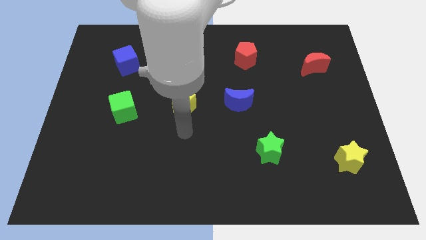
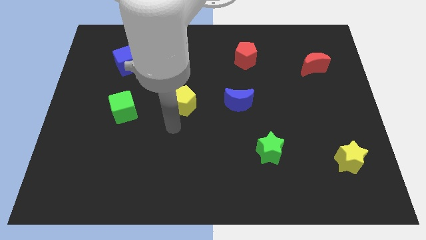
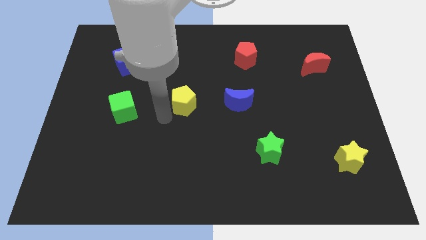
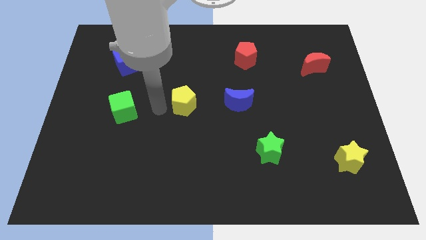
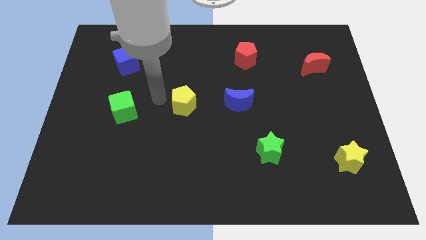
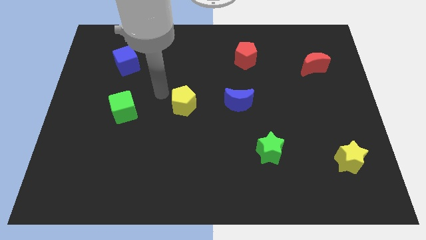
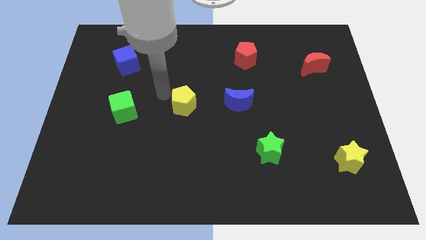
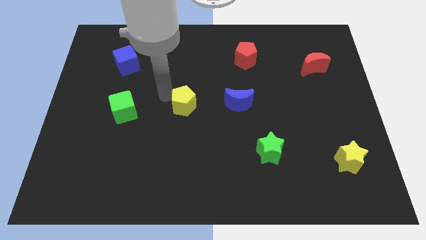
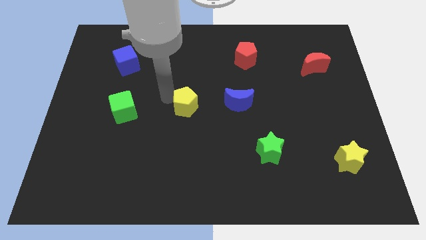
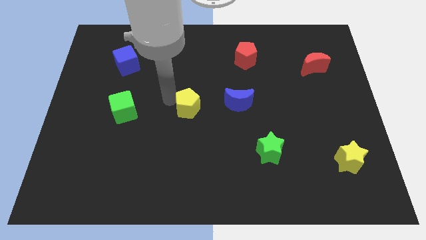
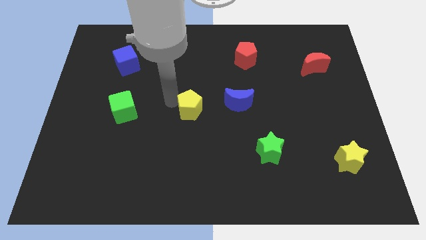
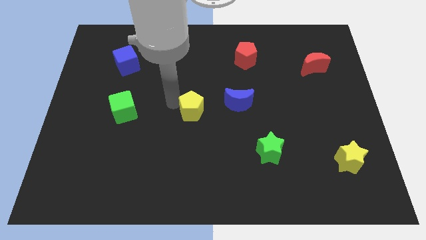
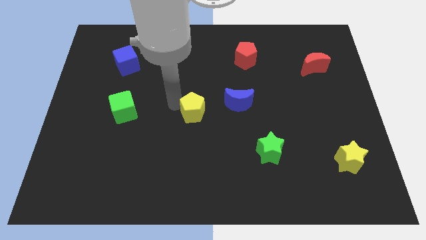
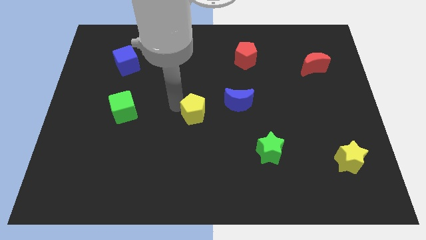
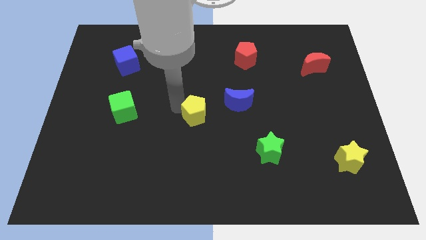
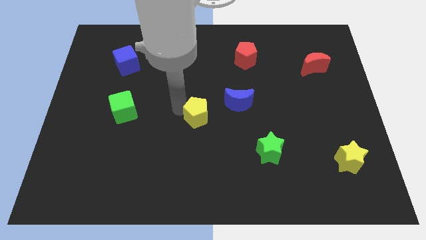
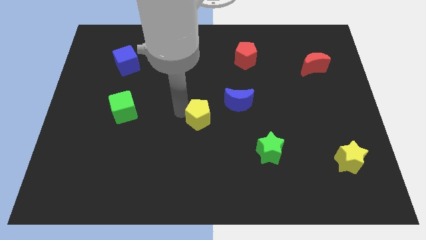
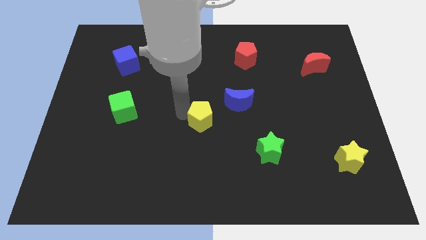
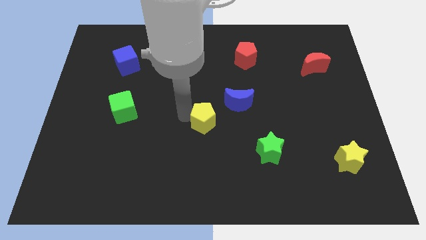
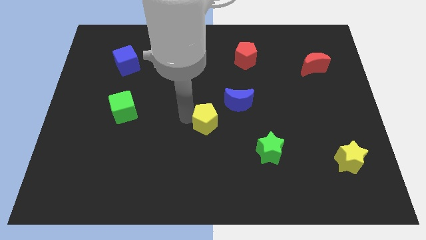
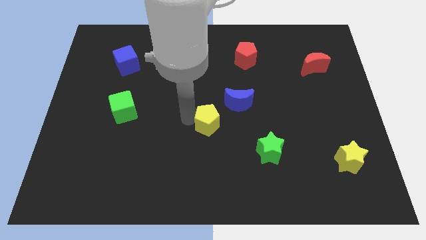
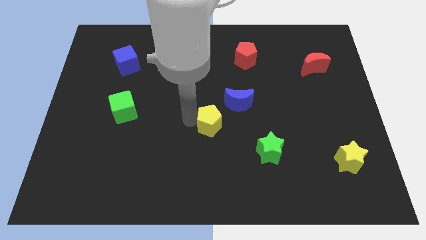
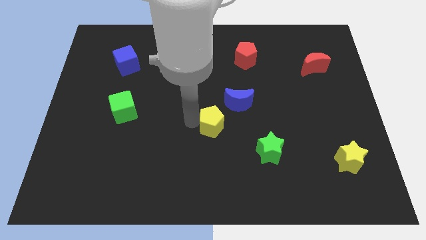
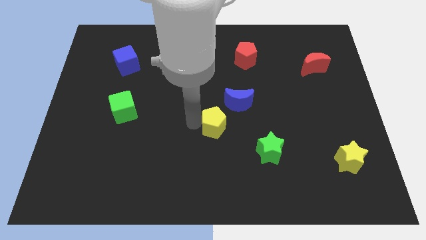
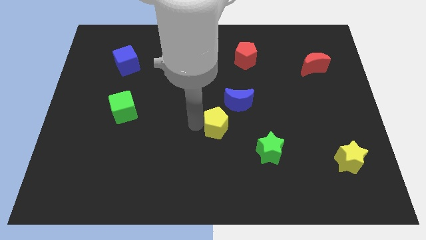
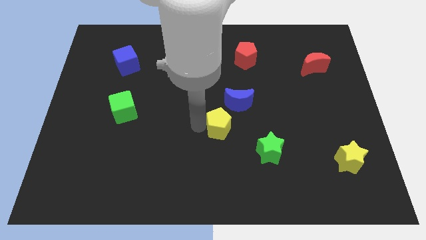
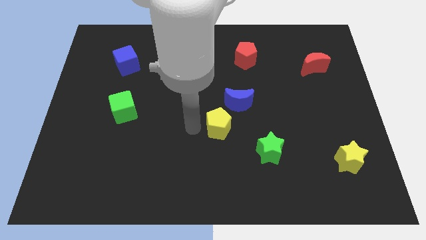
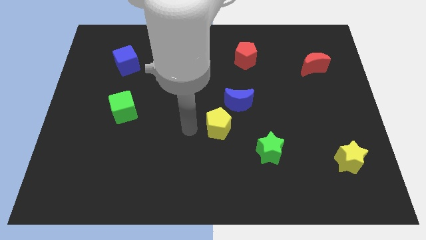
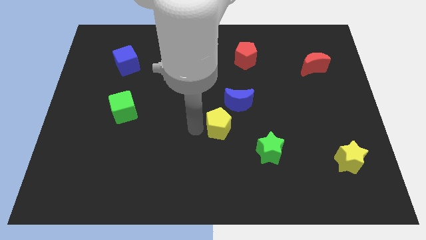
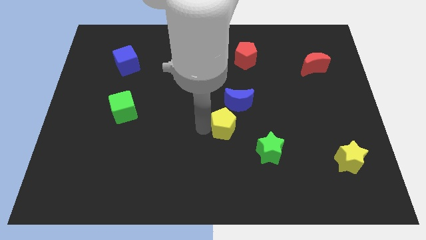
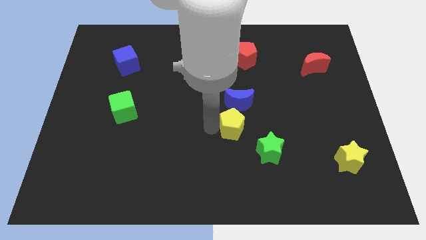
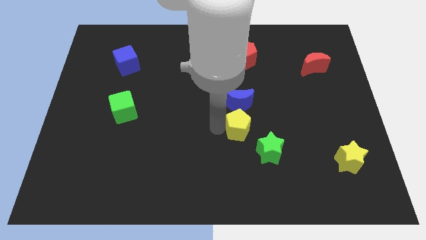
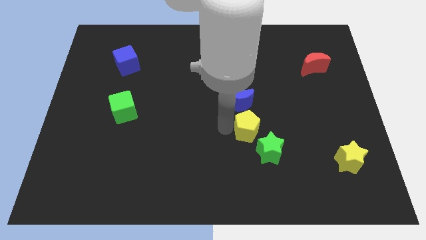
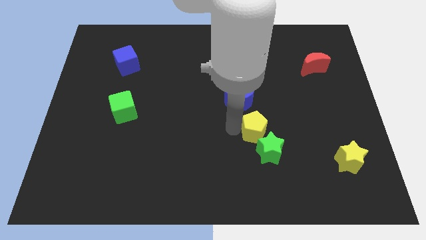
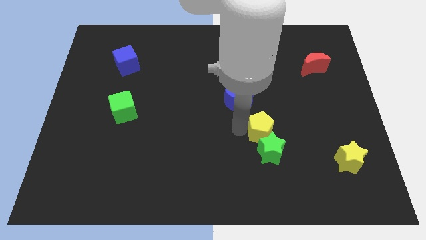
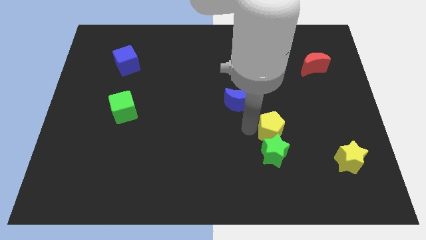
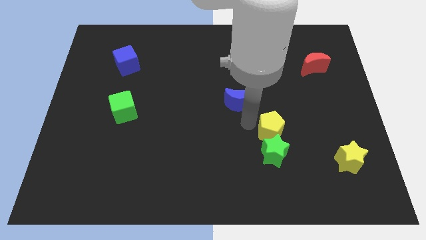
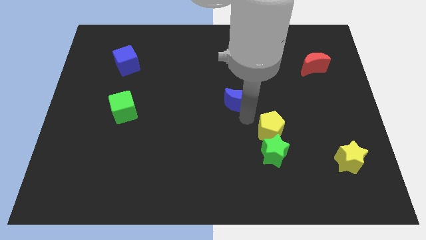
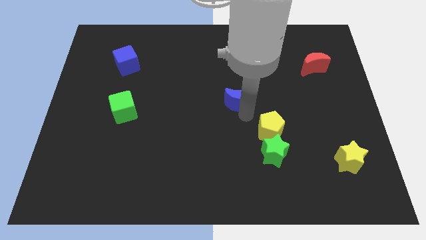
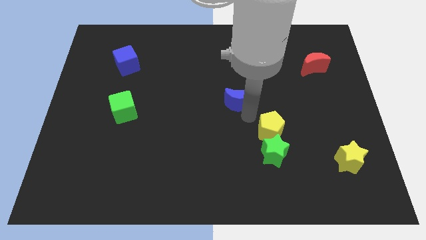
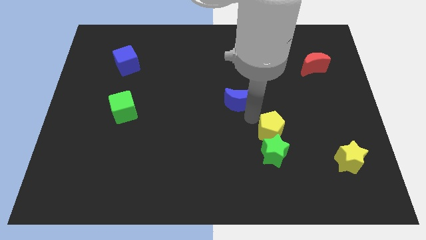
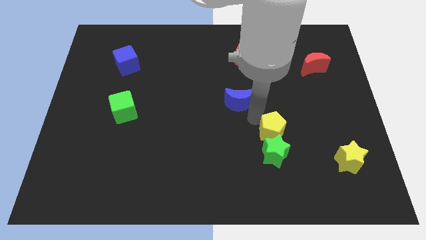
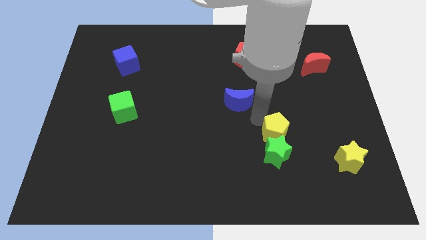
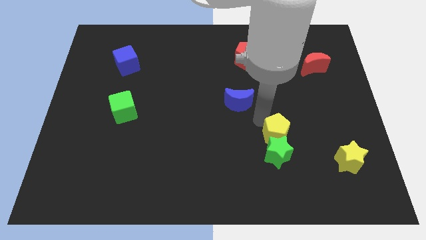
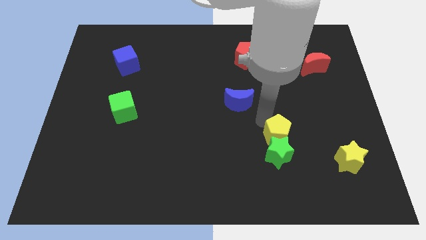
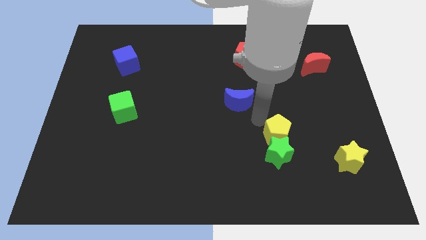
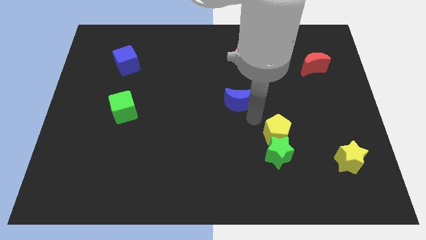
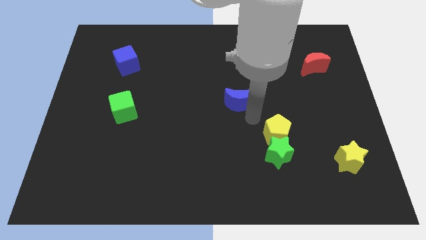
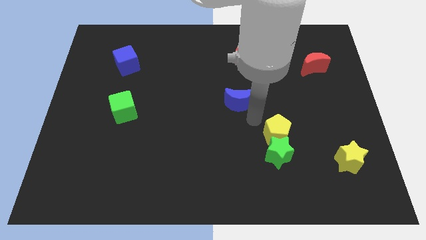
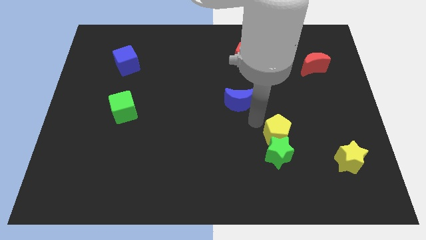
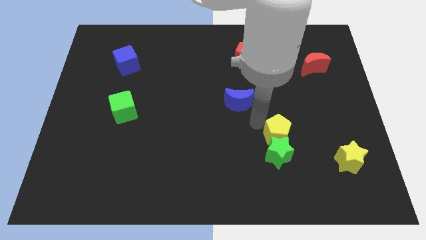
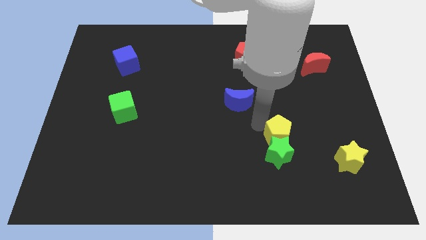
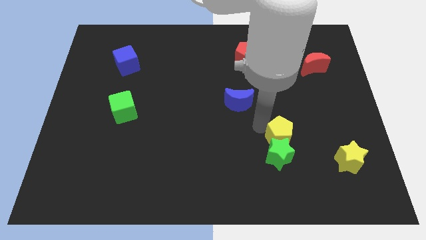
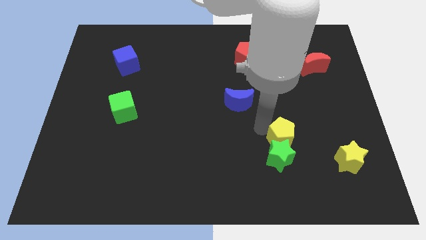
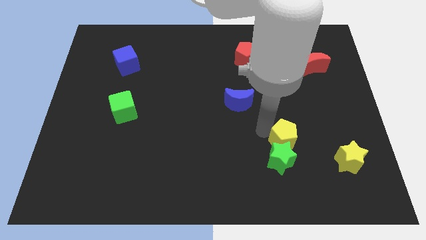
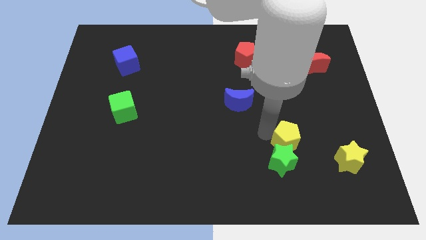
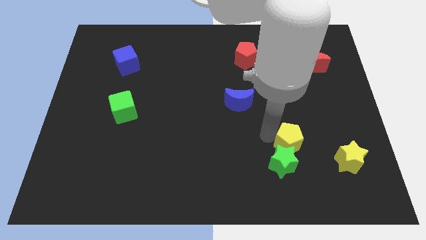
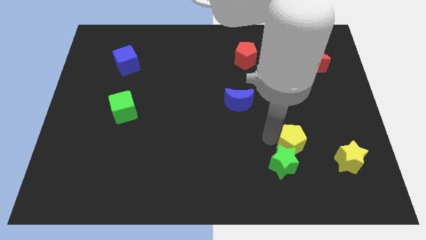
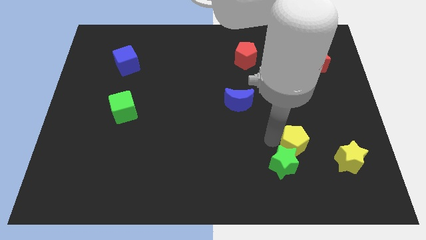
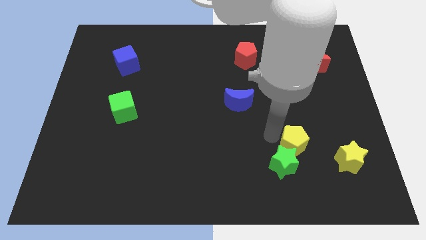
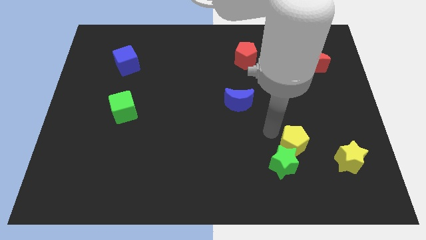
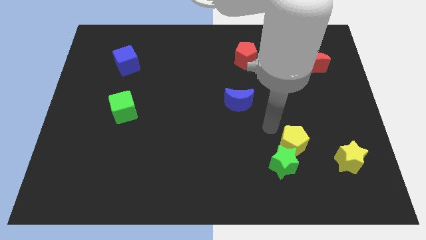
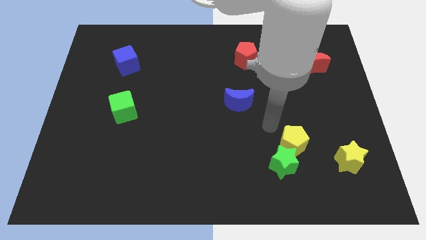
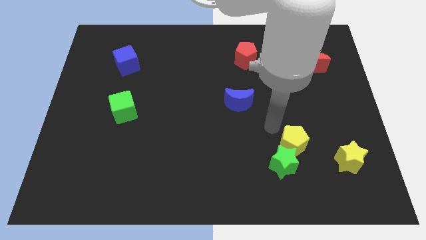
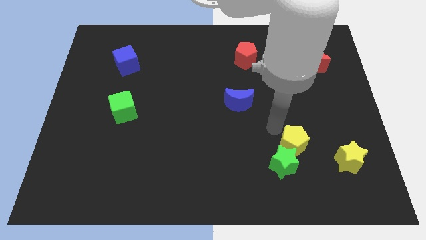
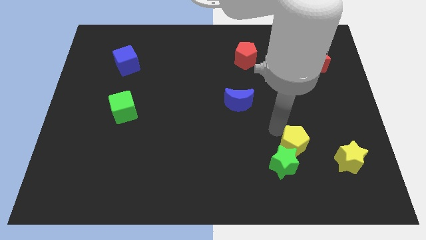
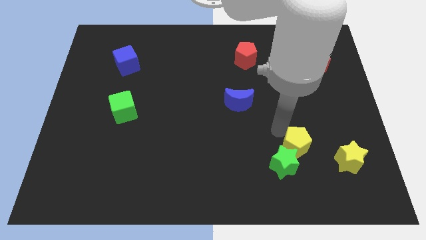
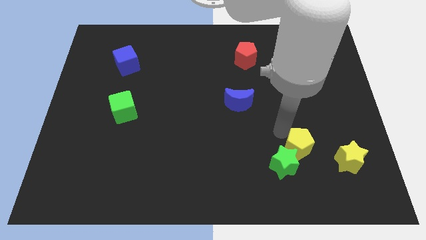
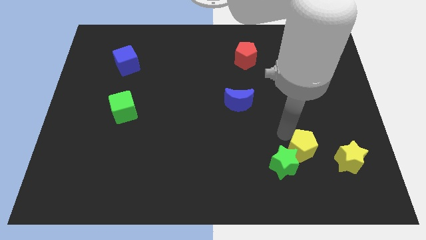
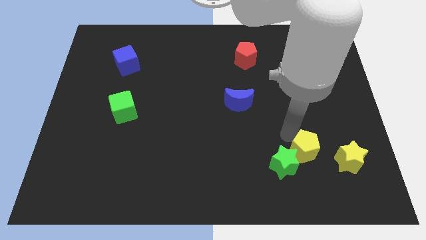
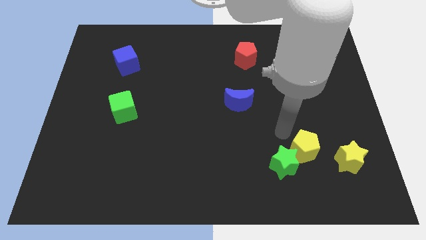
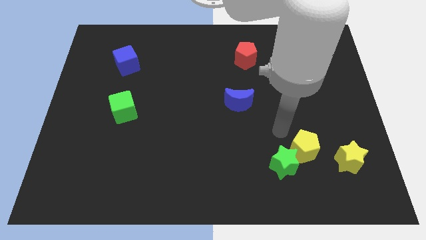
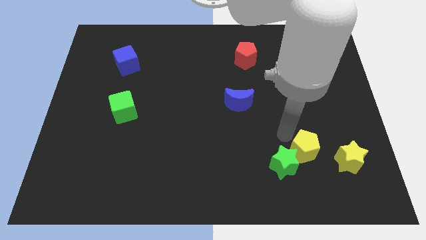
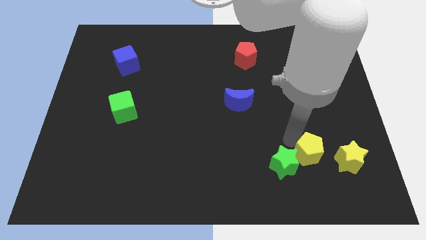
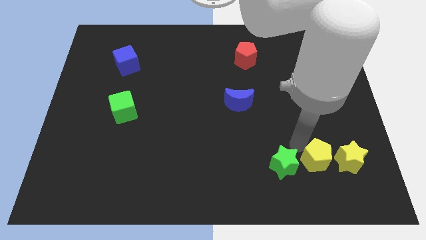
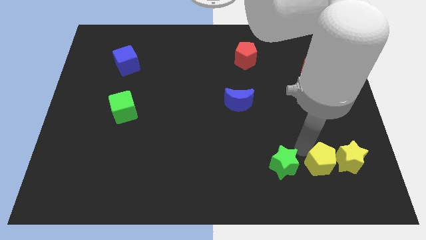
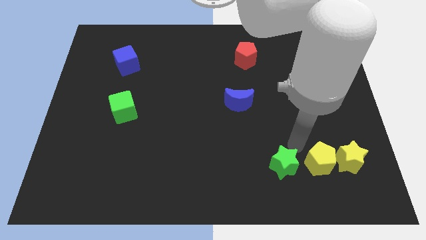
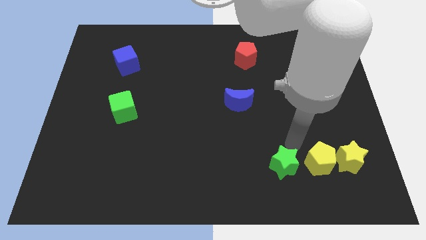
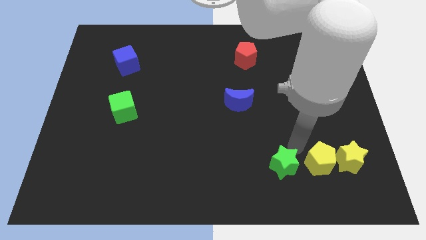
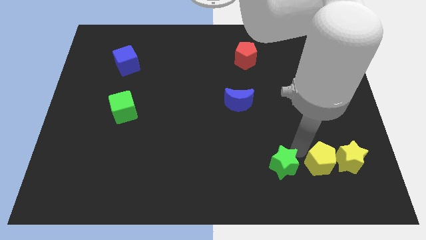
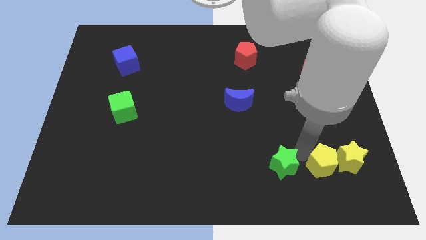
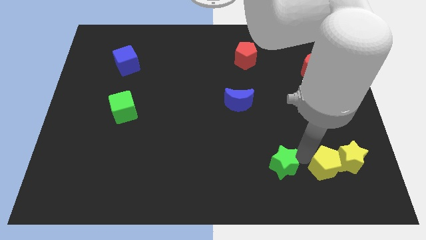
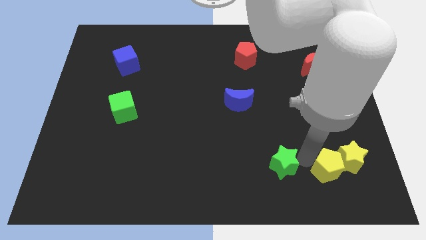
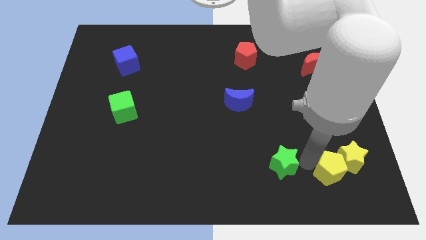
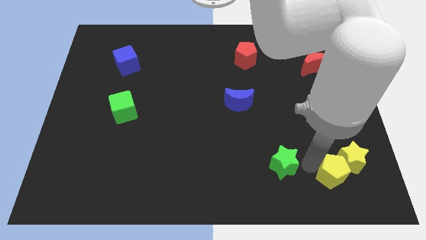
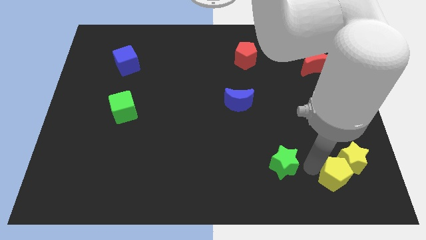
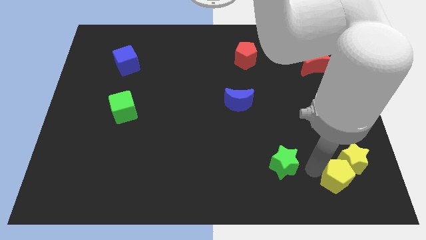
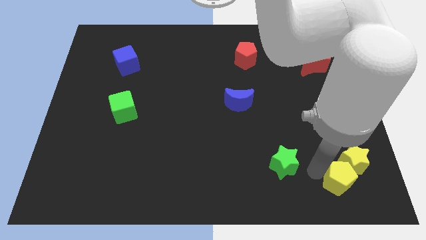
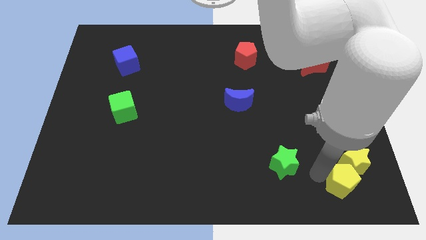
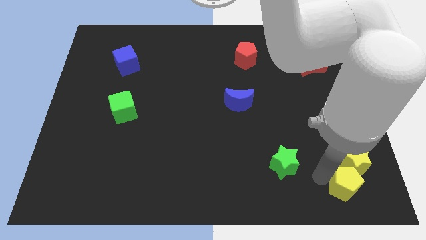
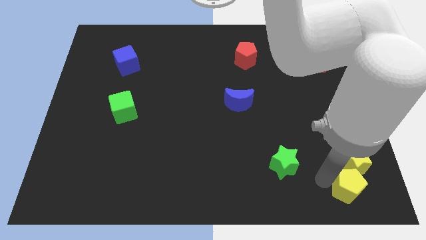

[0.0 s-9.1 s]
move the yellow pentagon to the bottom right corner
